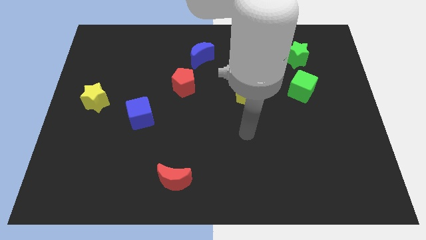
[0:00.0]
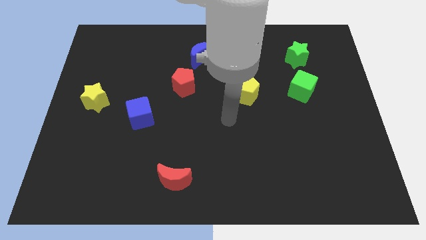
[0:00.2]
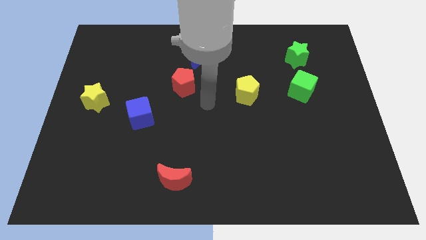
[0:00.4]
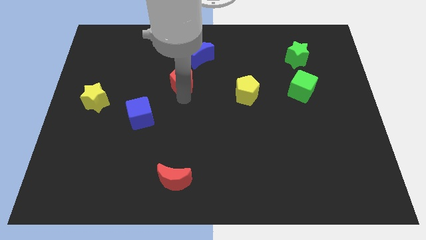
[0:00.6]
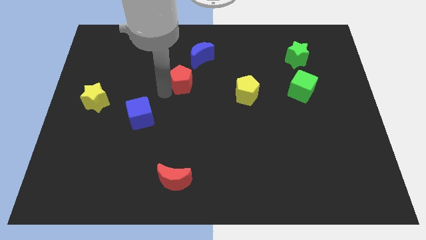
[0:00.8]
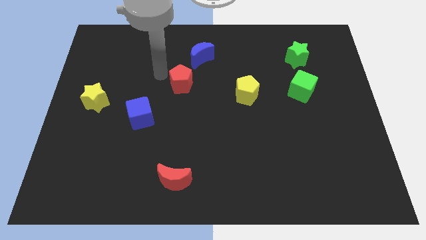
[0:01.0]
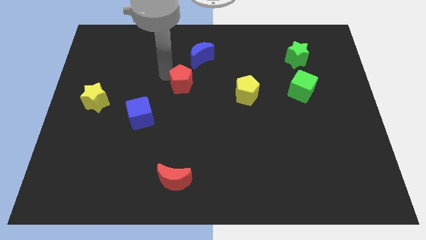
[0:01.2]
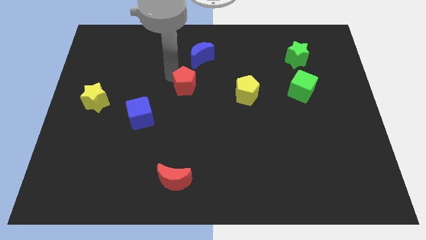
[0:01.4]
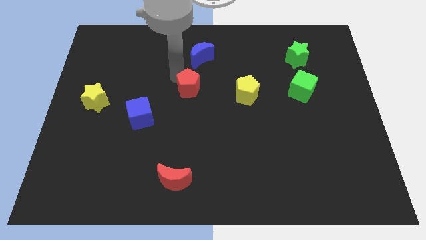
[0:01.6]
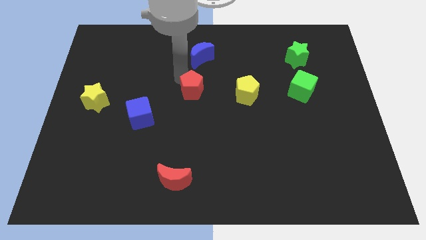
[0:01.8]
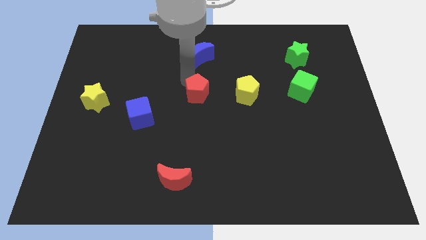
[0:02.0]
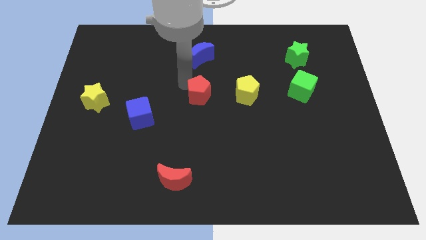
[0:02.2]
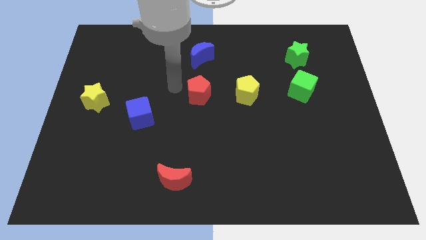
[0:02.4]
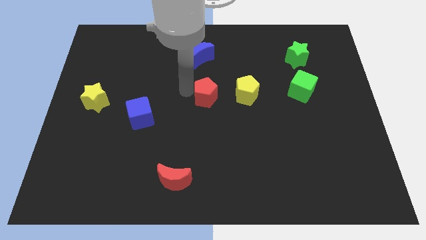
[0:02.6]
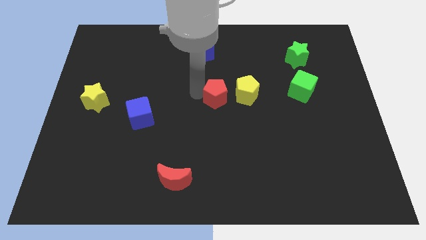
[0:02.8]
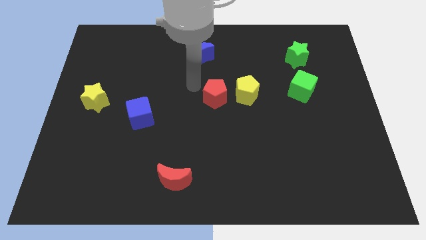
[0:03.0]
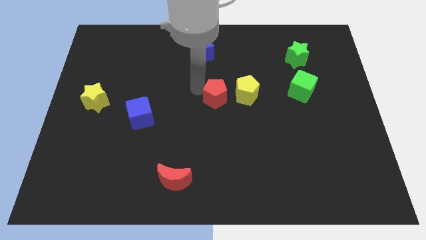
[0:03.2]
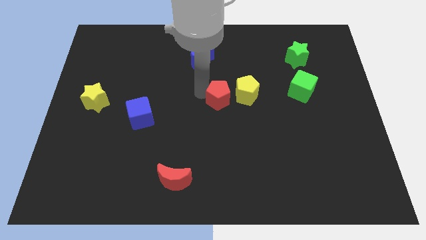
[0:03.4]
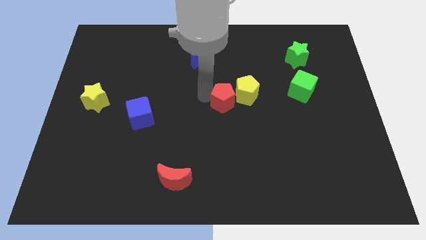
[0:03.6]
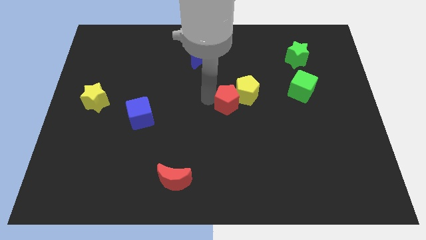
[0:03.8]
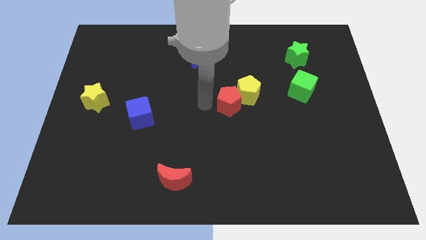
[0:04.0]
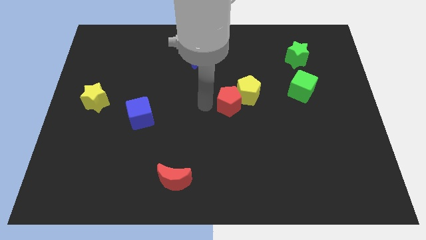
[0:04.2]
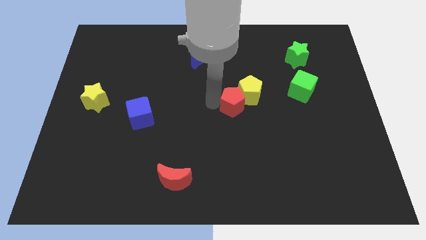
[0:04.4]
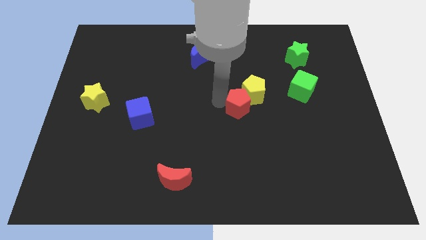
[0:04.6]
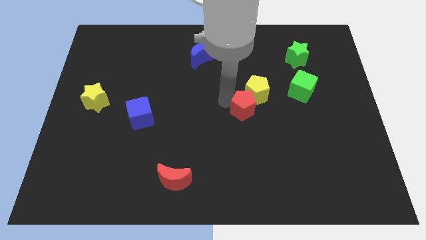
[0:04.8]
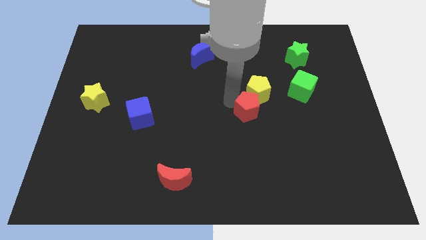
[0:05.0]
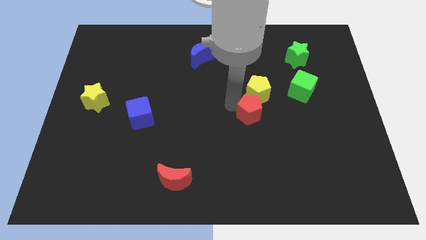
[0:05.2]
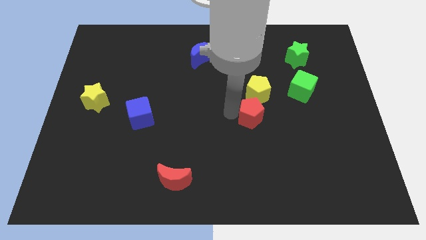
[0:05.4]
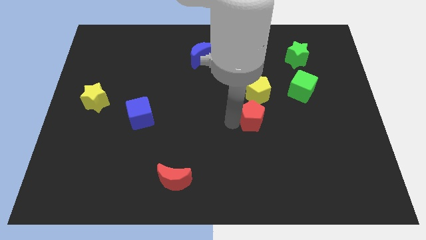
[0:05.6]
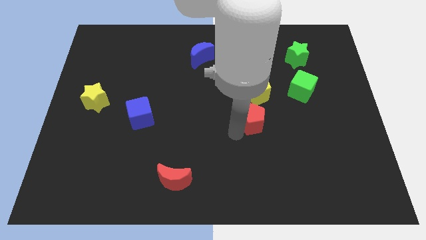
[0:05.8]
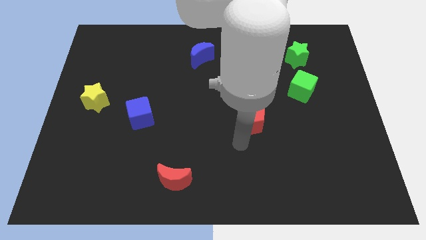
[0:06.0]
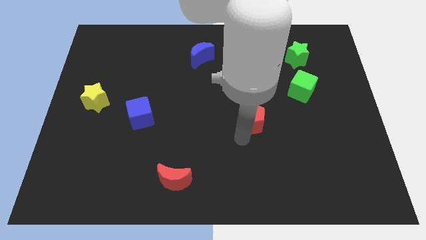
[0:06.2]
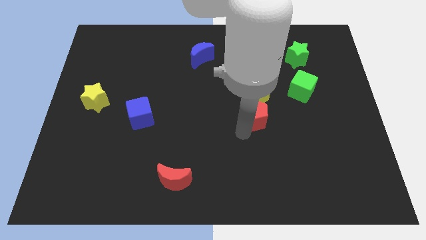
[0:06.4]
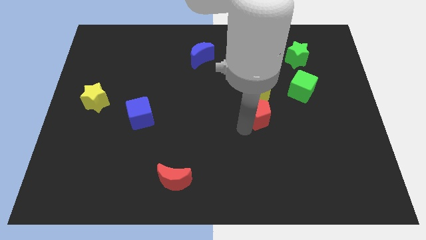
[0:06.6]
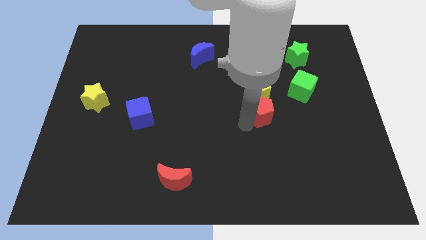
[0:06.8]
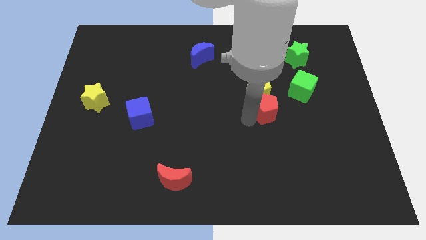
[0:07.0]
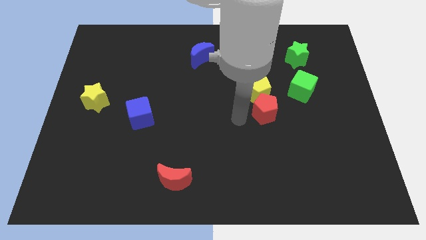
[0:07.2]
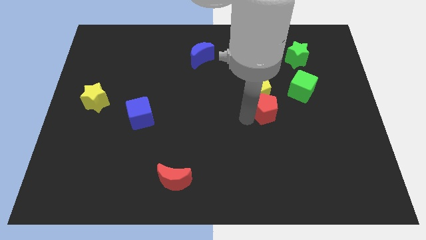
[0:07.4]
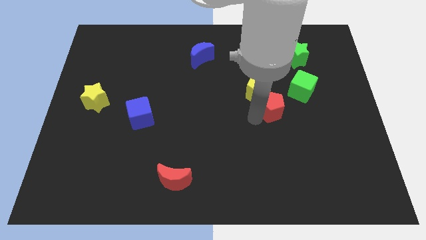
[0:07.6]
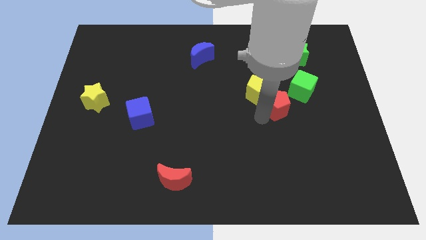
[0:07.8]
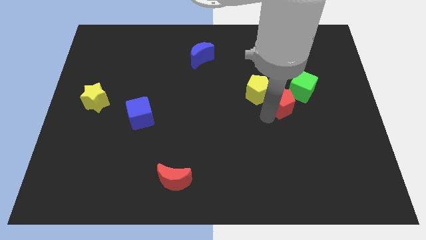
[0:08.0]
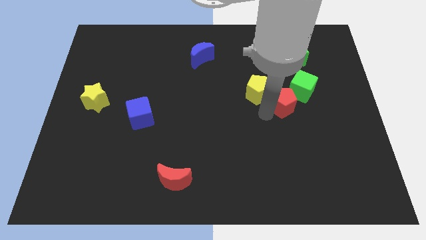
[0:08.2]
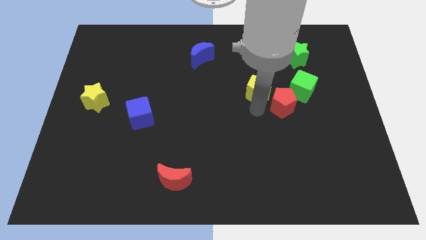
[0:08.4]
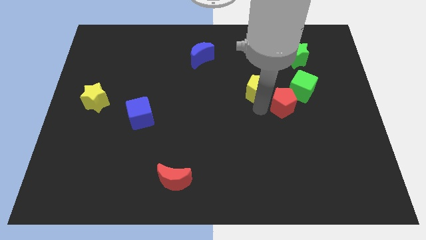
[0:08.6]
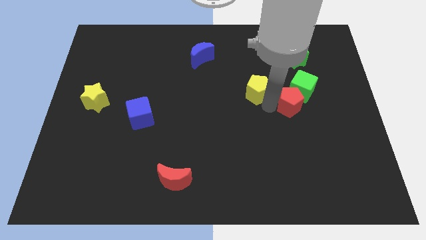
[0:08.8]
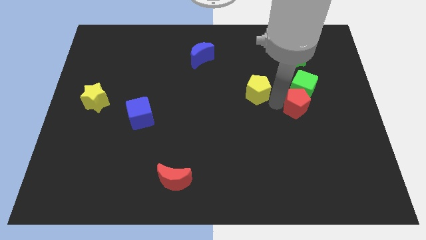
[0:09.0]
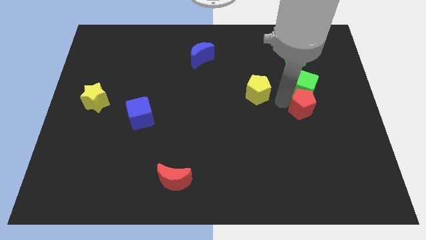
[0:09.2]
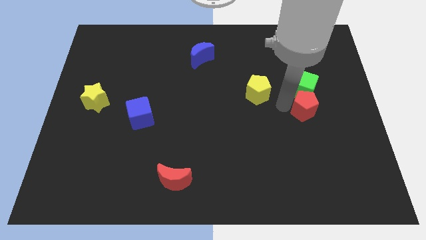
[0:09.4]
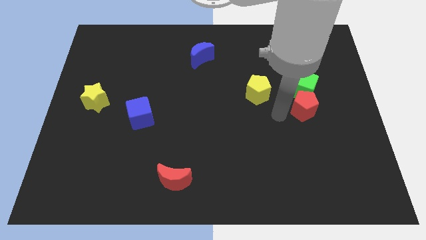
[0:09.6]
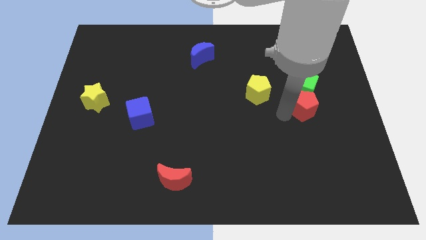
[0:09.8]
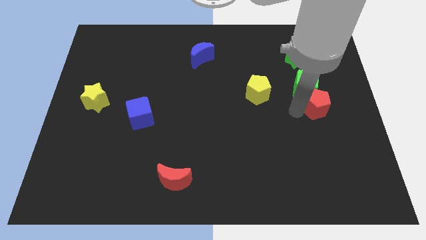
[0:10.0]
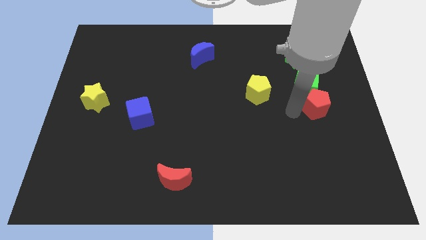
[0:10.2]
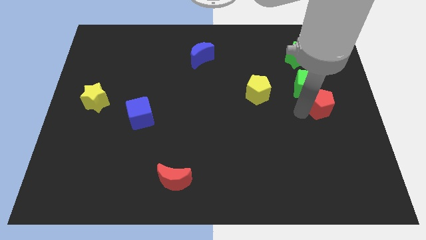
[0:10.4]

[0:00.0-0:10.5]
put the red pentagon to the center right

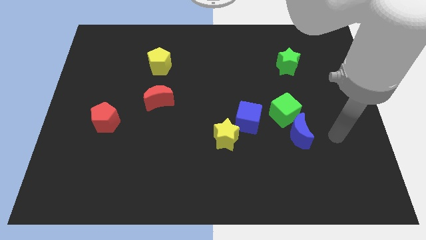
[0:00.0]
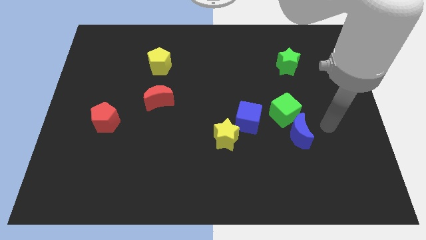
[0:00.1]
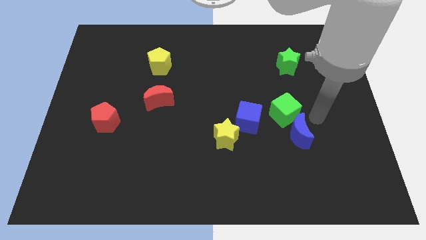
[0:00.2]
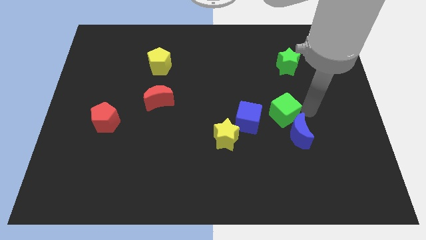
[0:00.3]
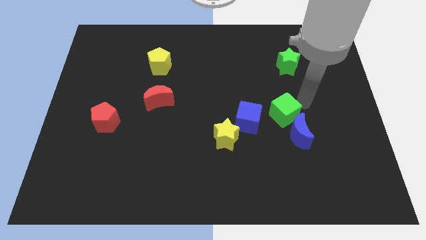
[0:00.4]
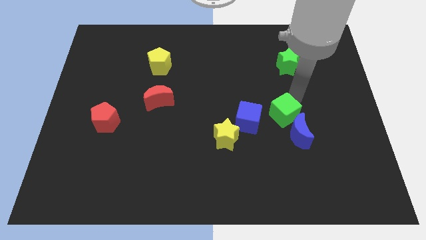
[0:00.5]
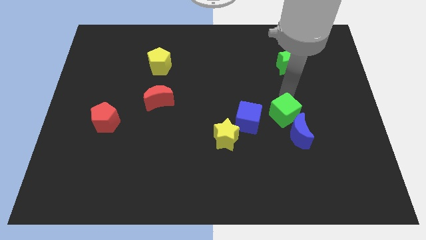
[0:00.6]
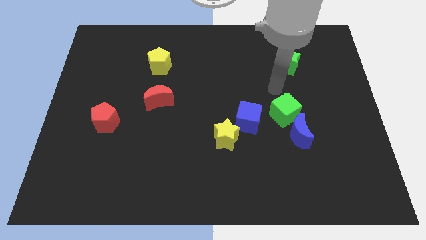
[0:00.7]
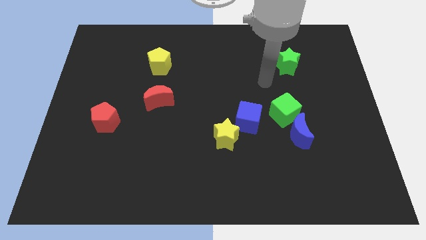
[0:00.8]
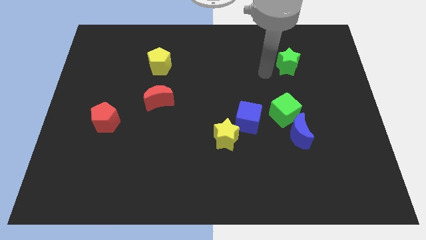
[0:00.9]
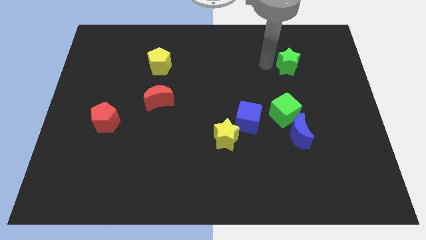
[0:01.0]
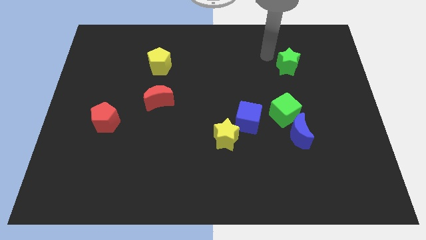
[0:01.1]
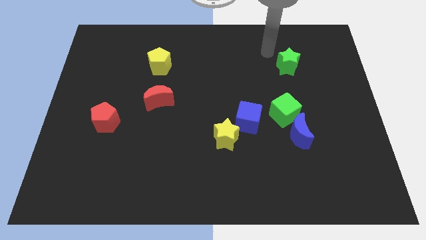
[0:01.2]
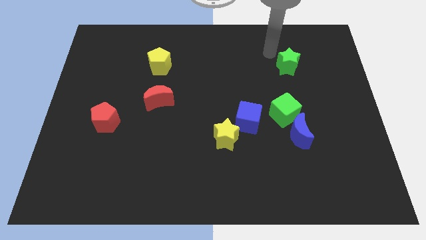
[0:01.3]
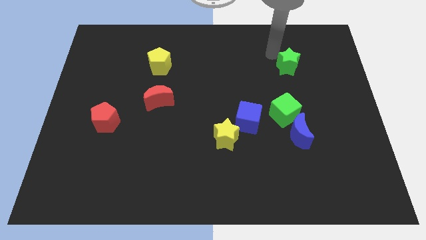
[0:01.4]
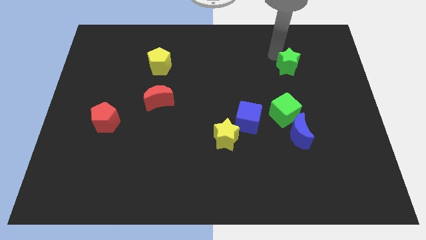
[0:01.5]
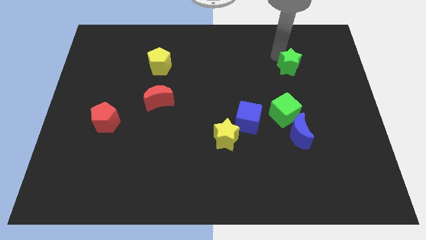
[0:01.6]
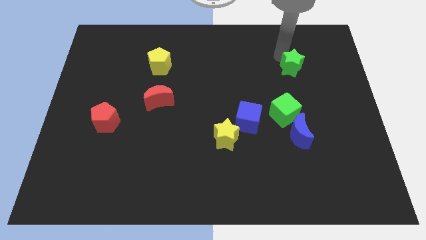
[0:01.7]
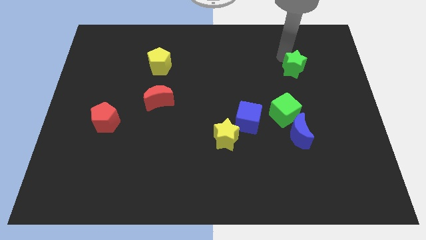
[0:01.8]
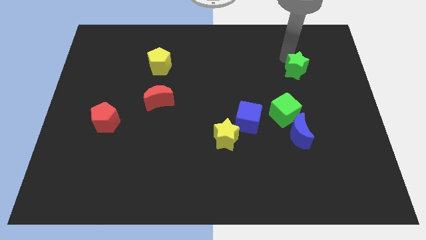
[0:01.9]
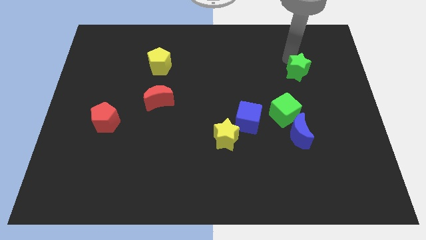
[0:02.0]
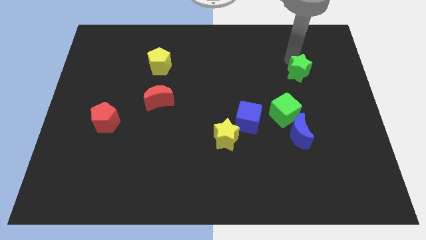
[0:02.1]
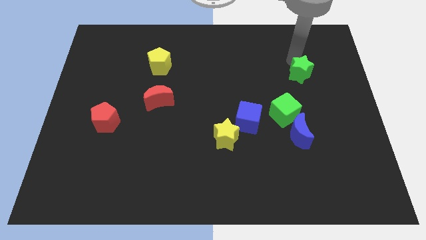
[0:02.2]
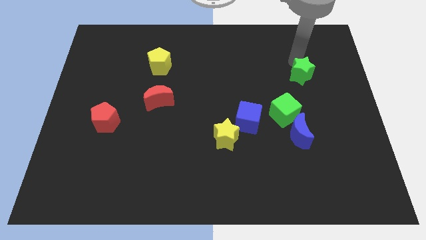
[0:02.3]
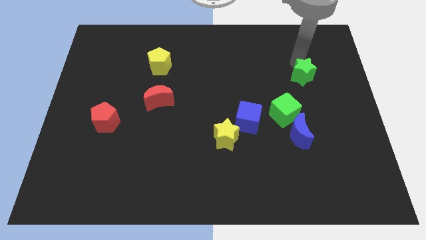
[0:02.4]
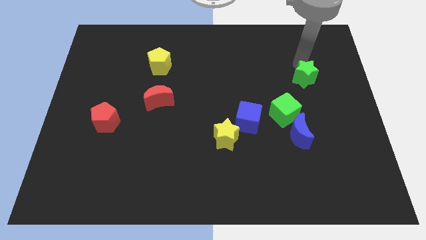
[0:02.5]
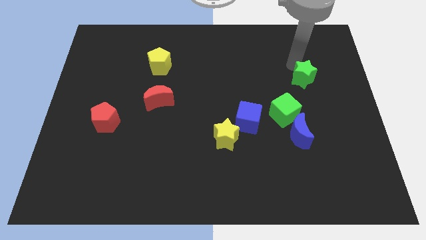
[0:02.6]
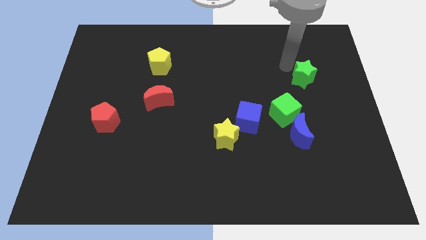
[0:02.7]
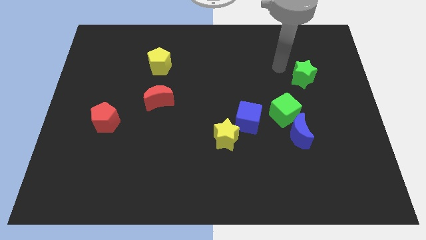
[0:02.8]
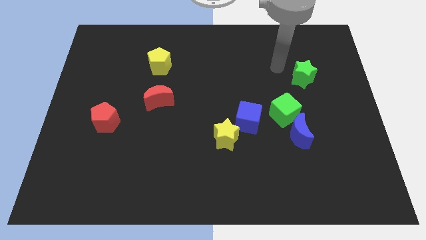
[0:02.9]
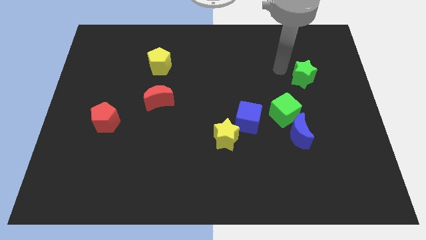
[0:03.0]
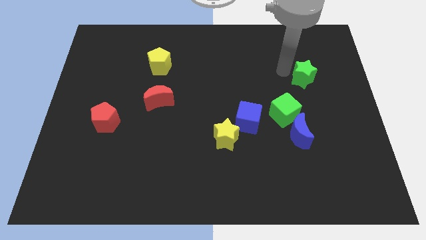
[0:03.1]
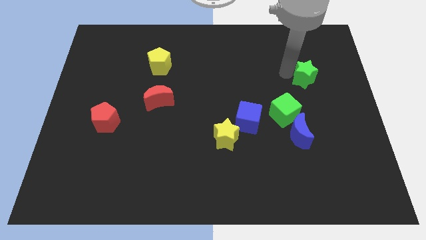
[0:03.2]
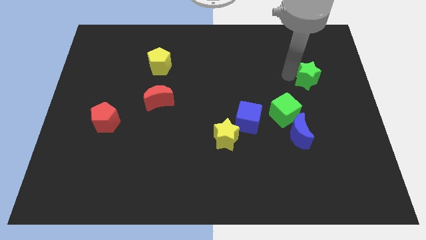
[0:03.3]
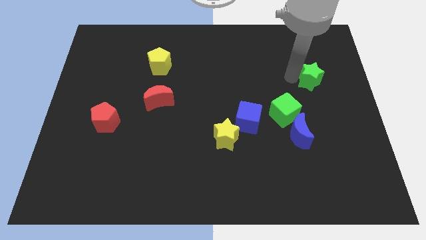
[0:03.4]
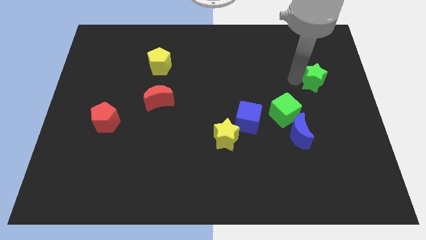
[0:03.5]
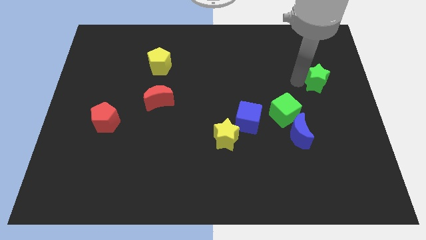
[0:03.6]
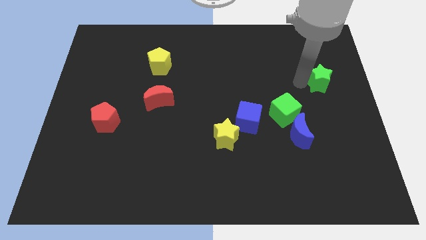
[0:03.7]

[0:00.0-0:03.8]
slide the green star to the right side
